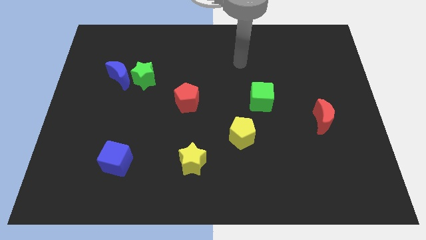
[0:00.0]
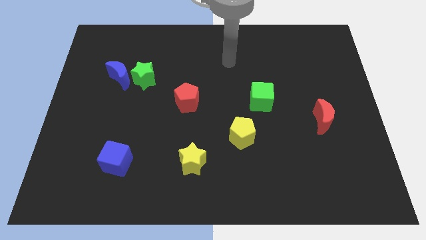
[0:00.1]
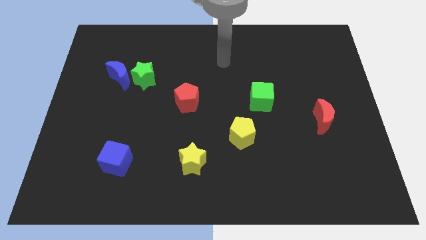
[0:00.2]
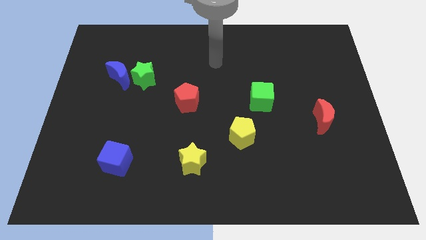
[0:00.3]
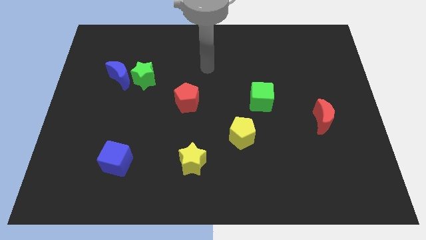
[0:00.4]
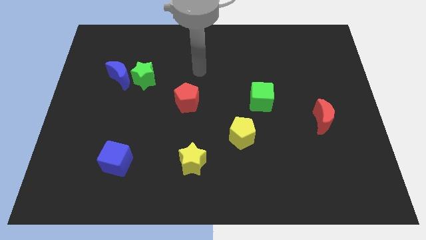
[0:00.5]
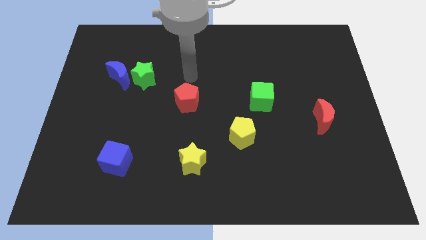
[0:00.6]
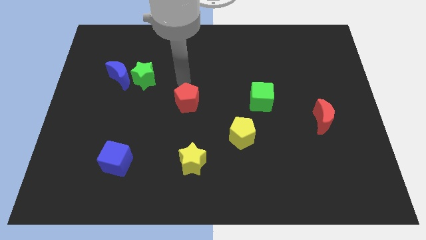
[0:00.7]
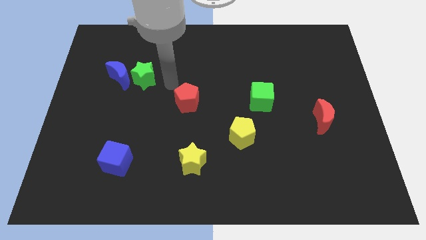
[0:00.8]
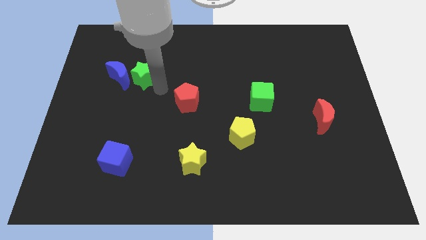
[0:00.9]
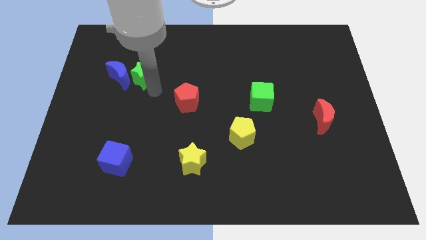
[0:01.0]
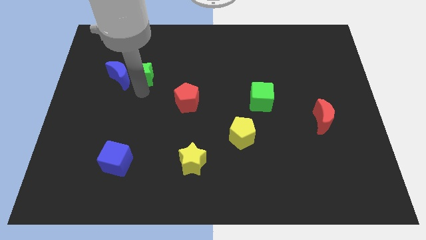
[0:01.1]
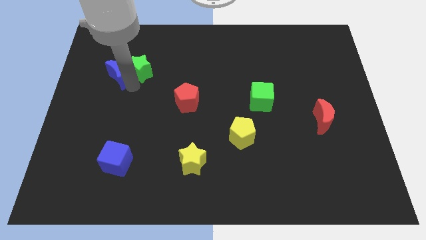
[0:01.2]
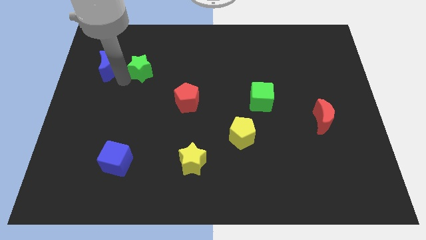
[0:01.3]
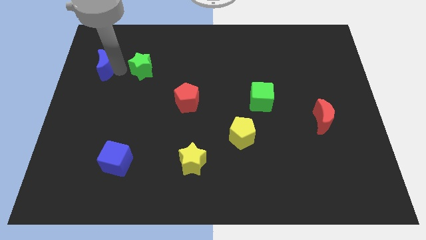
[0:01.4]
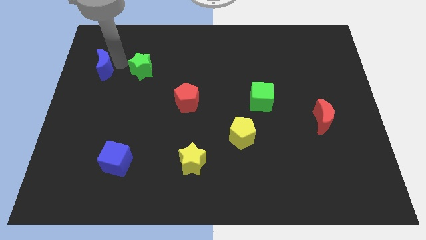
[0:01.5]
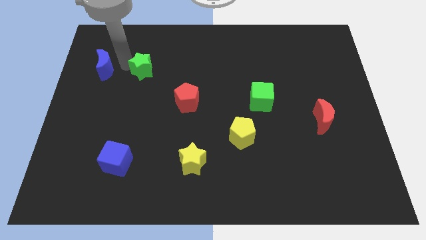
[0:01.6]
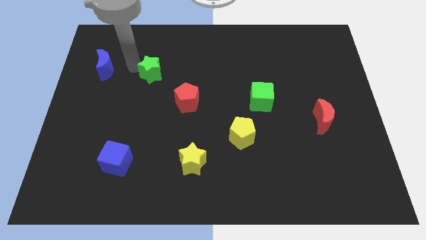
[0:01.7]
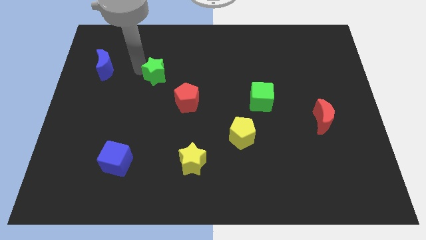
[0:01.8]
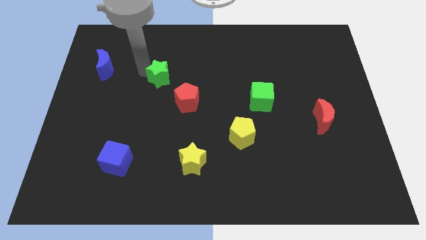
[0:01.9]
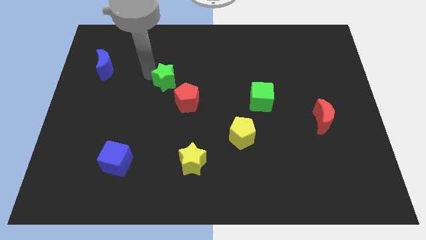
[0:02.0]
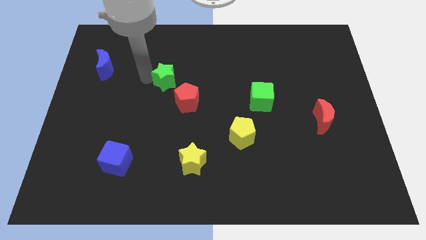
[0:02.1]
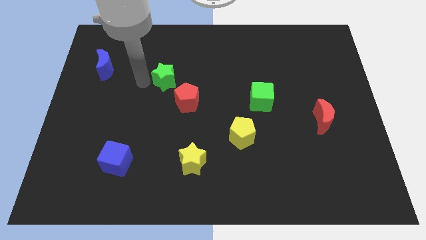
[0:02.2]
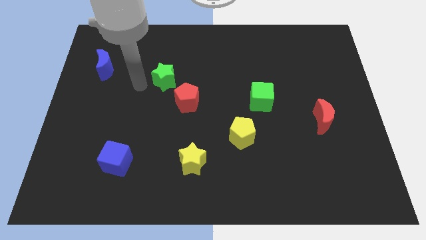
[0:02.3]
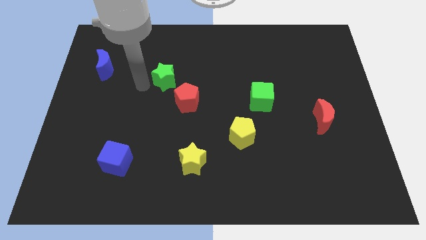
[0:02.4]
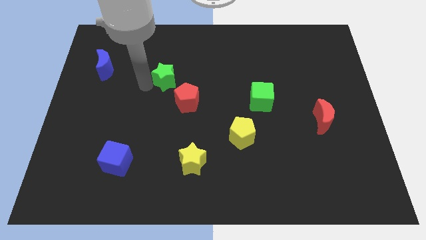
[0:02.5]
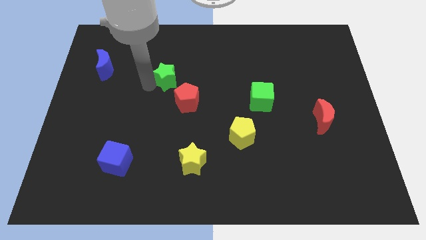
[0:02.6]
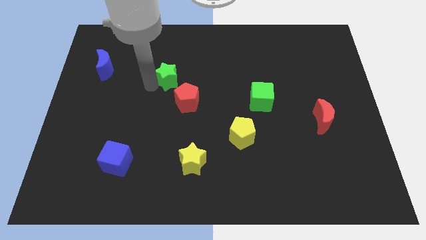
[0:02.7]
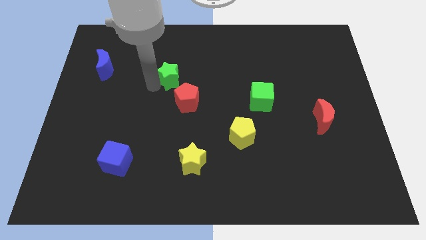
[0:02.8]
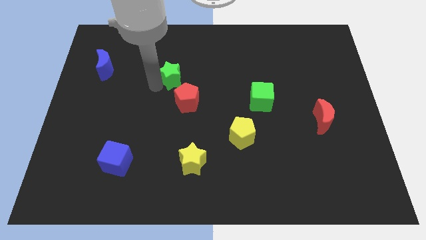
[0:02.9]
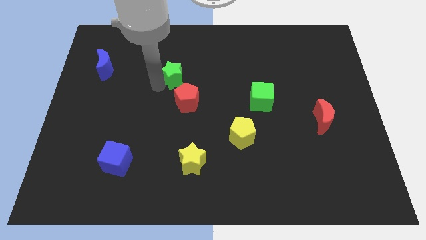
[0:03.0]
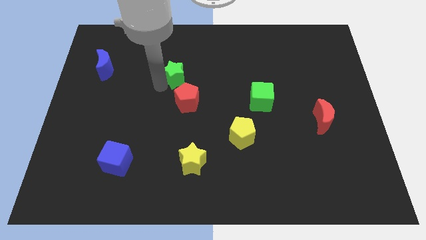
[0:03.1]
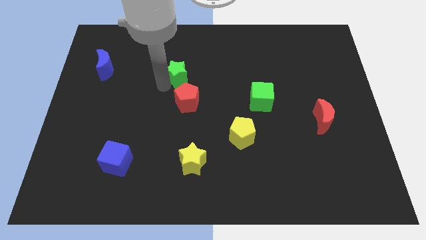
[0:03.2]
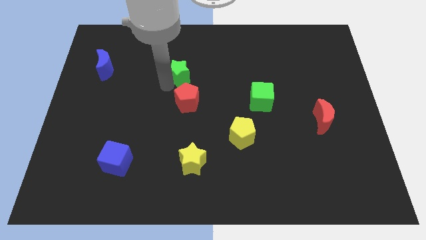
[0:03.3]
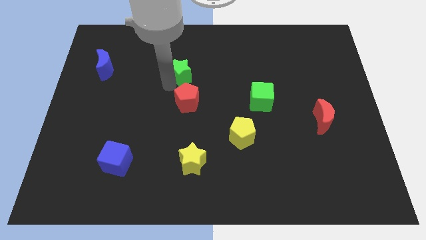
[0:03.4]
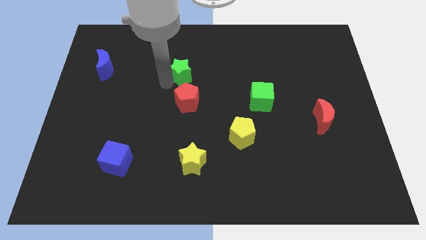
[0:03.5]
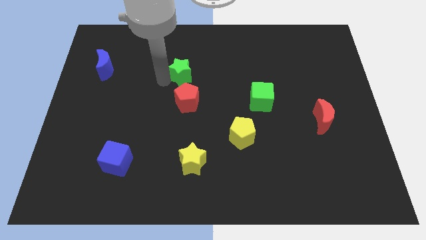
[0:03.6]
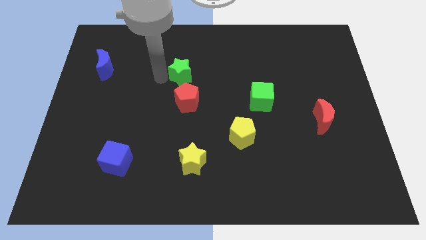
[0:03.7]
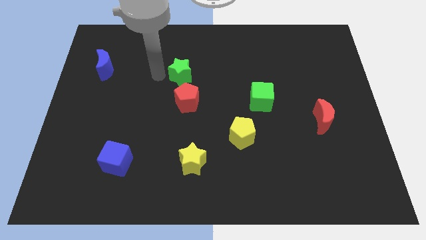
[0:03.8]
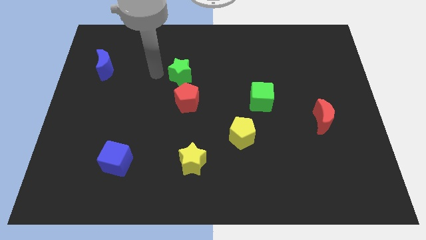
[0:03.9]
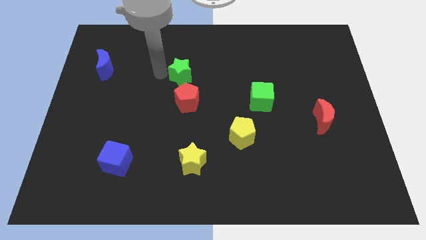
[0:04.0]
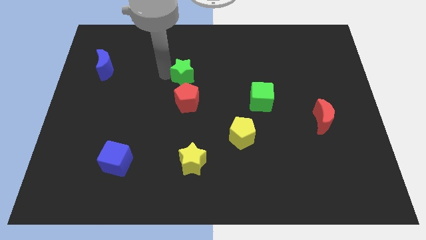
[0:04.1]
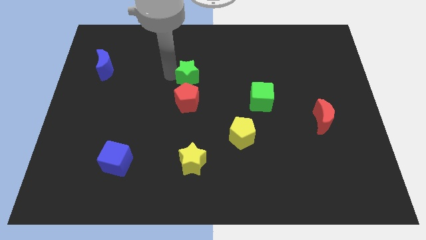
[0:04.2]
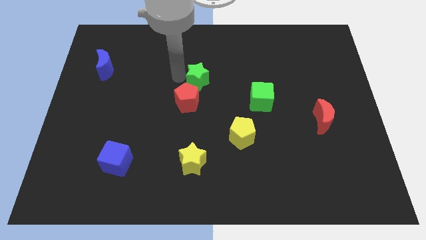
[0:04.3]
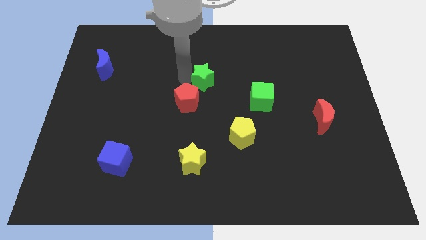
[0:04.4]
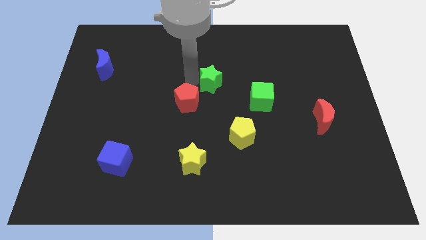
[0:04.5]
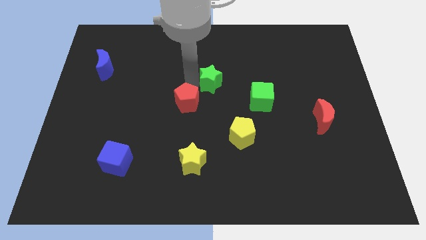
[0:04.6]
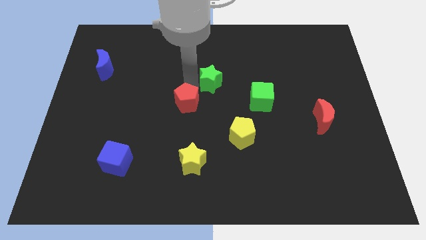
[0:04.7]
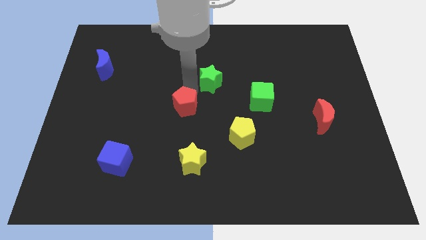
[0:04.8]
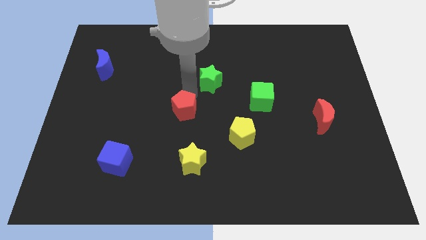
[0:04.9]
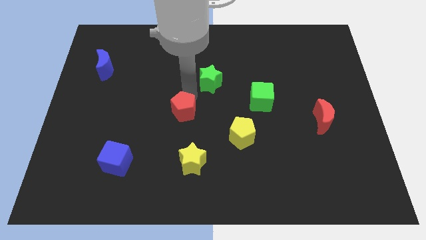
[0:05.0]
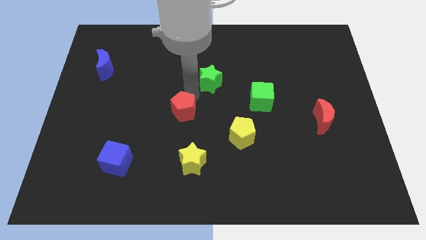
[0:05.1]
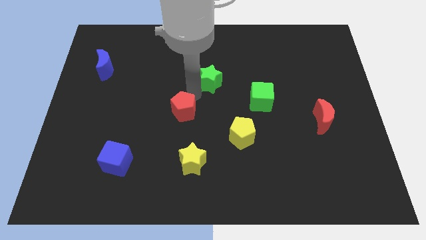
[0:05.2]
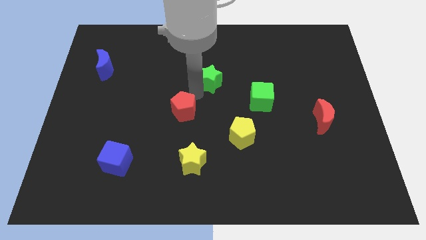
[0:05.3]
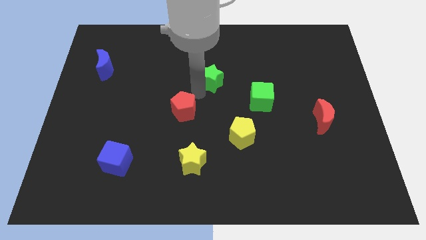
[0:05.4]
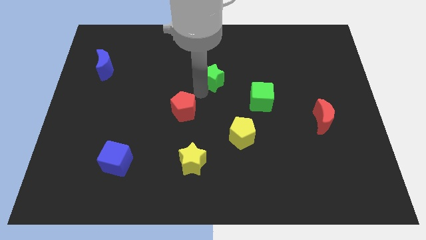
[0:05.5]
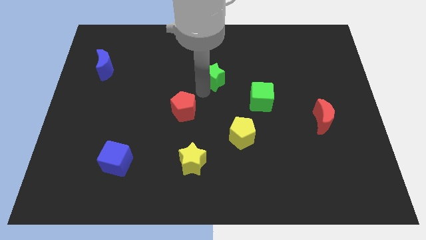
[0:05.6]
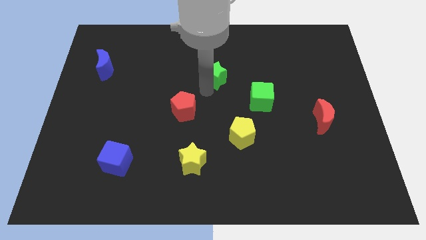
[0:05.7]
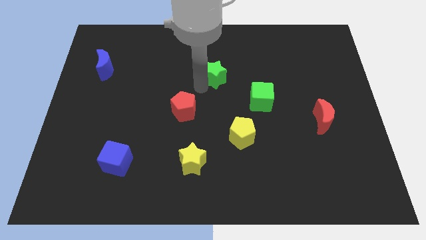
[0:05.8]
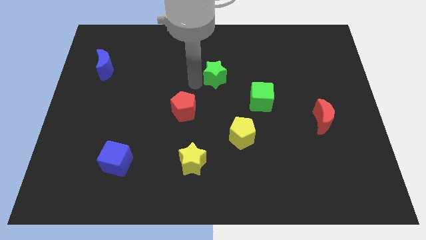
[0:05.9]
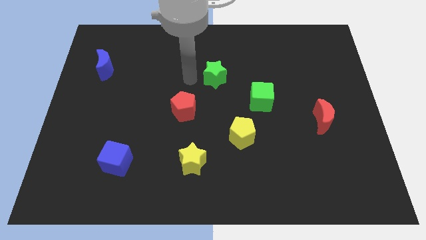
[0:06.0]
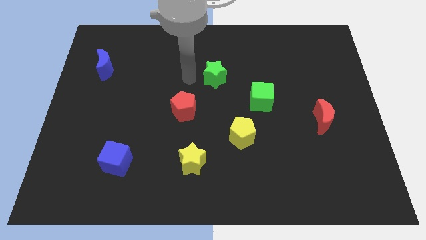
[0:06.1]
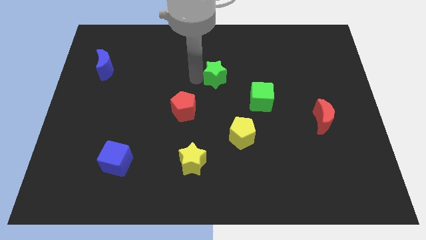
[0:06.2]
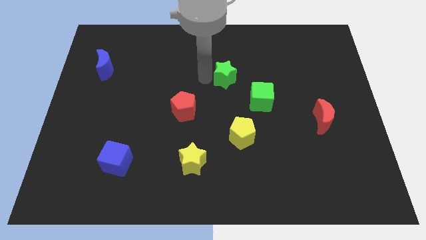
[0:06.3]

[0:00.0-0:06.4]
push the green star right

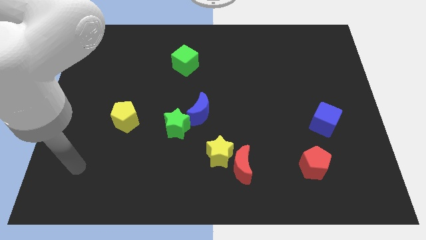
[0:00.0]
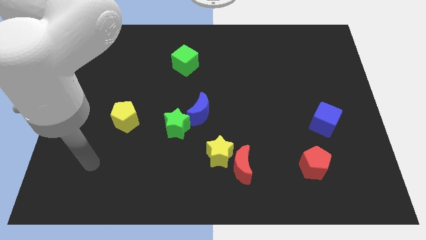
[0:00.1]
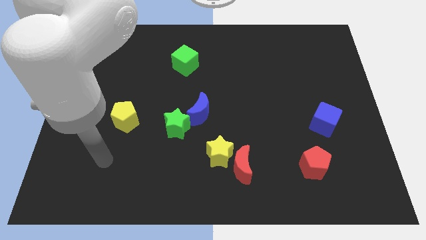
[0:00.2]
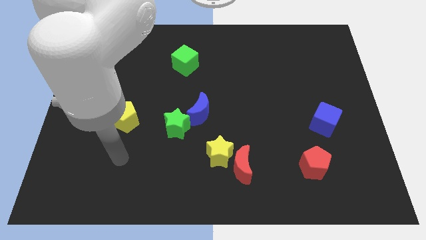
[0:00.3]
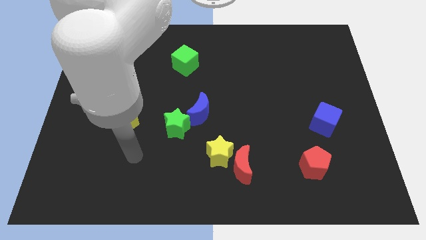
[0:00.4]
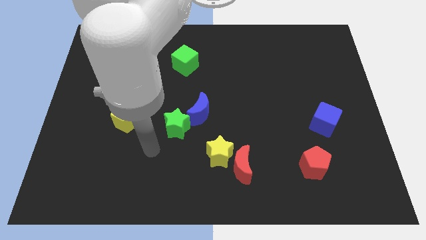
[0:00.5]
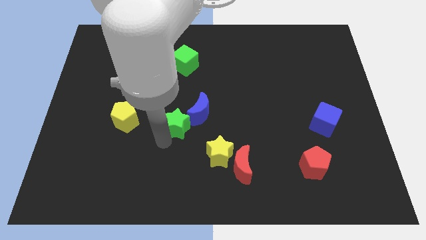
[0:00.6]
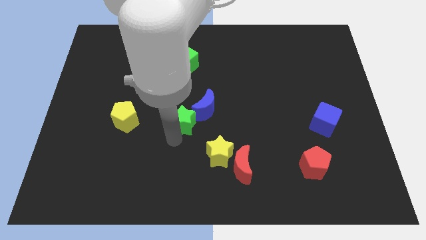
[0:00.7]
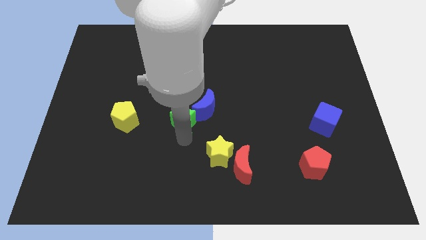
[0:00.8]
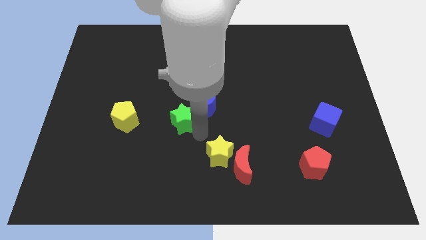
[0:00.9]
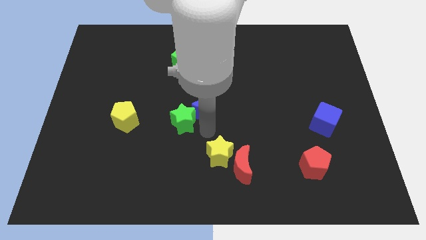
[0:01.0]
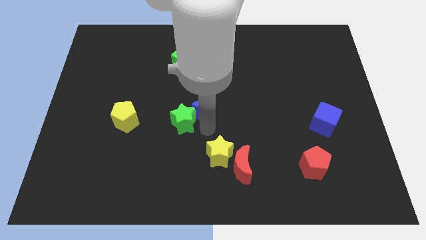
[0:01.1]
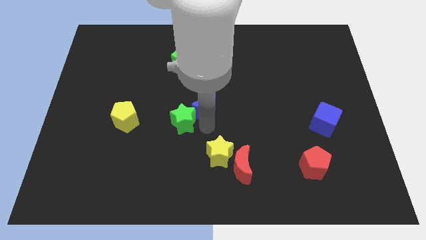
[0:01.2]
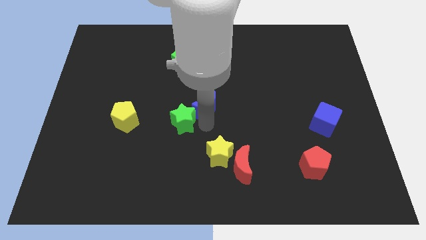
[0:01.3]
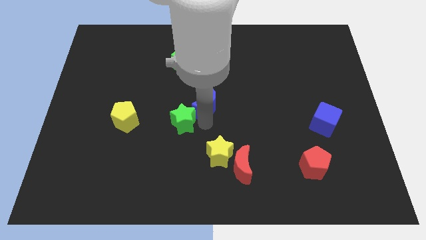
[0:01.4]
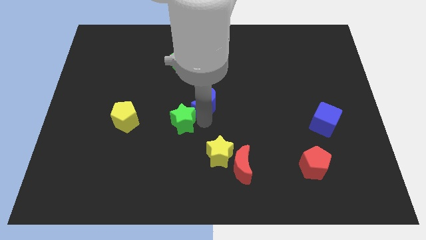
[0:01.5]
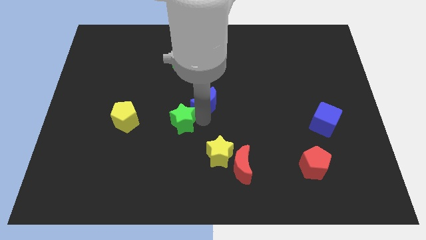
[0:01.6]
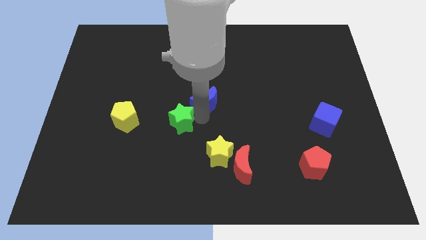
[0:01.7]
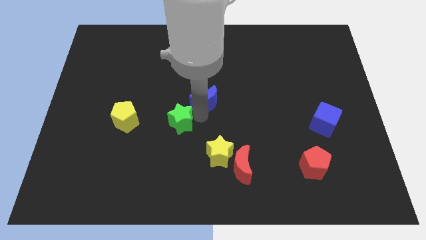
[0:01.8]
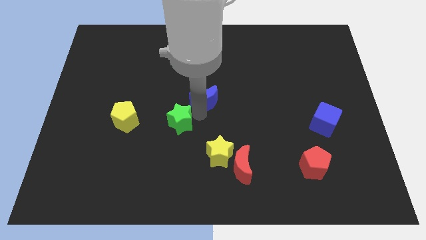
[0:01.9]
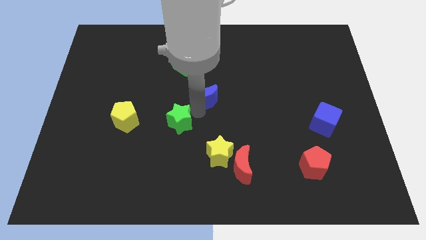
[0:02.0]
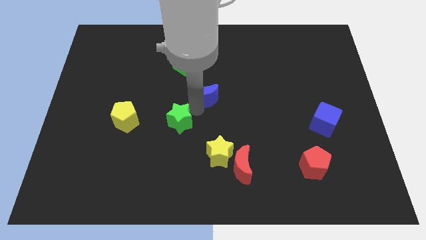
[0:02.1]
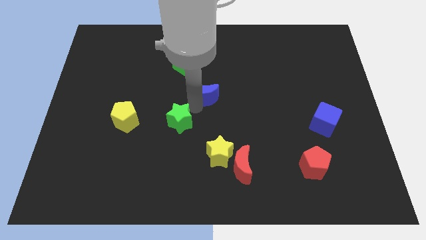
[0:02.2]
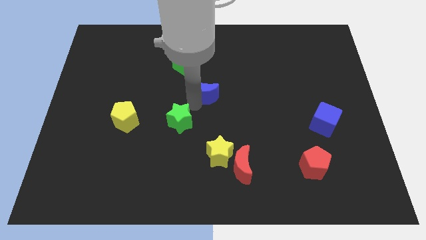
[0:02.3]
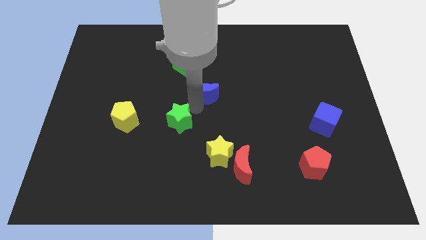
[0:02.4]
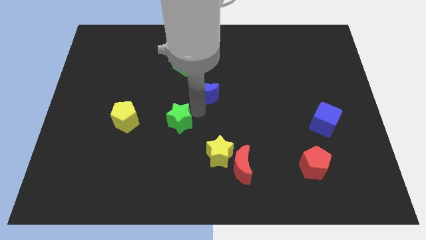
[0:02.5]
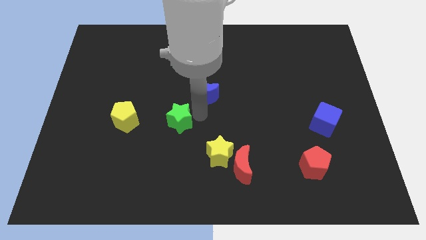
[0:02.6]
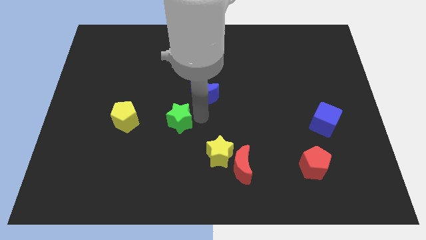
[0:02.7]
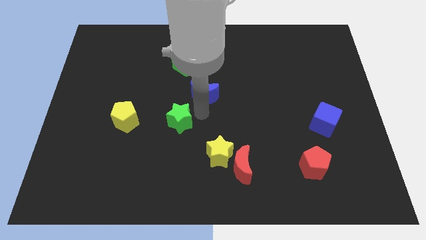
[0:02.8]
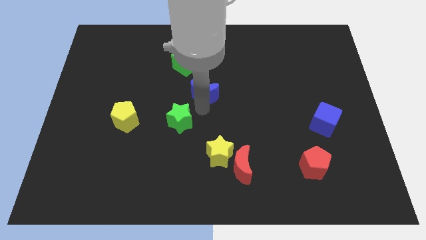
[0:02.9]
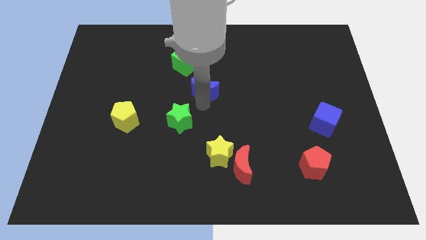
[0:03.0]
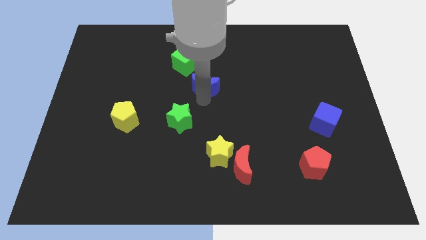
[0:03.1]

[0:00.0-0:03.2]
push the blue moon upwards a little
